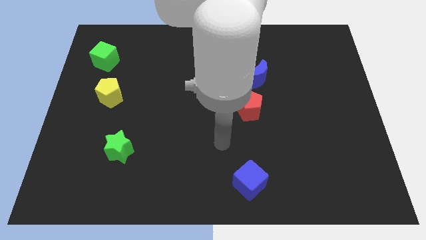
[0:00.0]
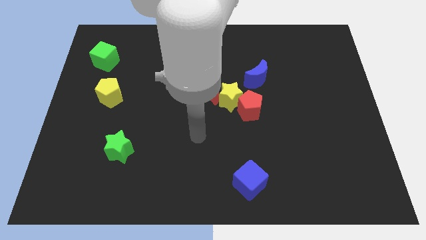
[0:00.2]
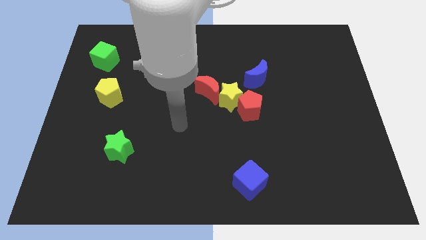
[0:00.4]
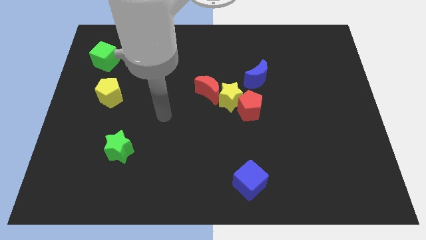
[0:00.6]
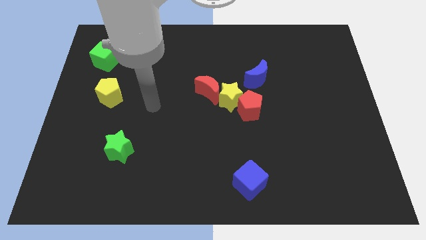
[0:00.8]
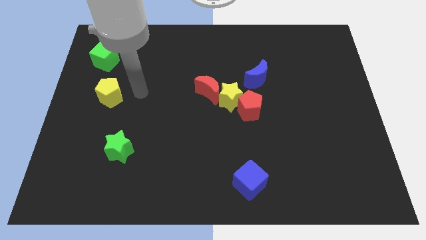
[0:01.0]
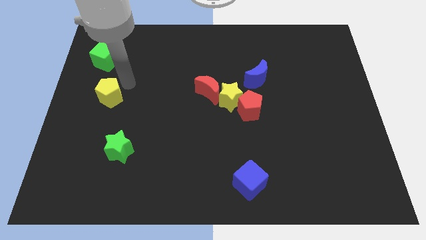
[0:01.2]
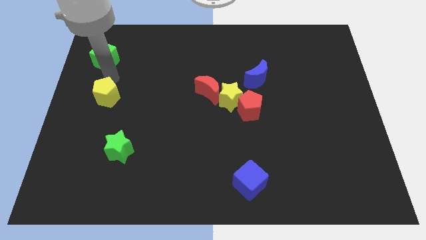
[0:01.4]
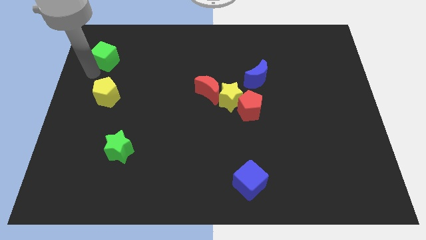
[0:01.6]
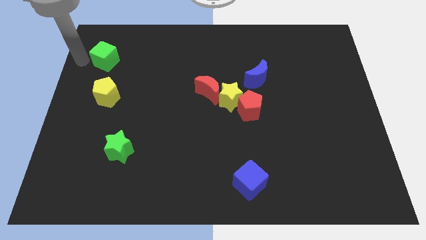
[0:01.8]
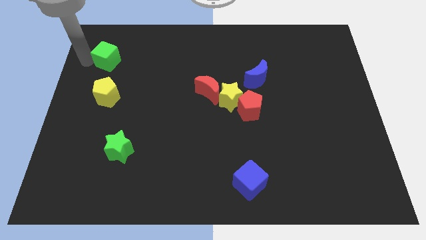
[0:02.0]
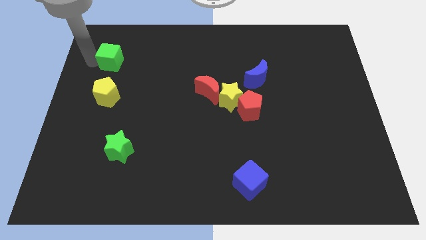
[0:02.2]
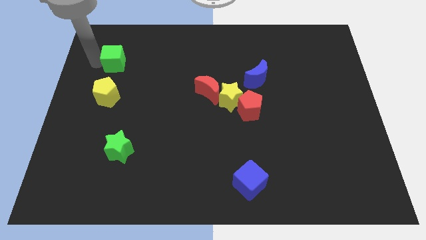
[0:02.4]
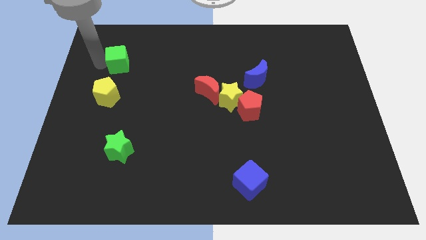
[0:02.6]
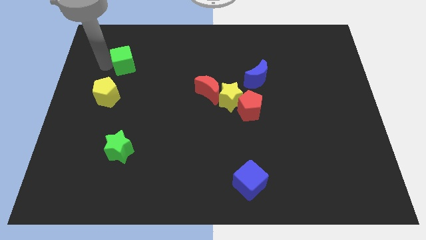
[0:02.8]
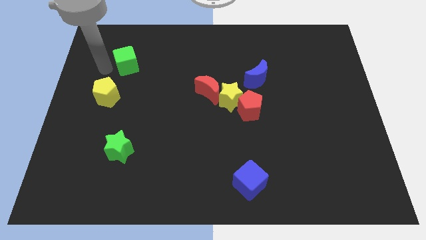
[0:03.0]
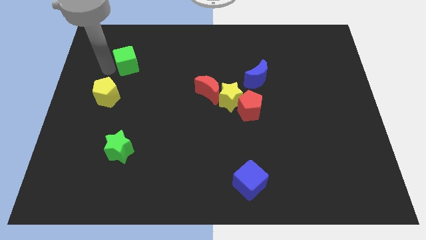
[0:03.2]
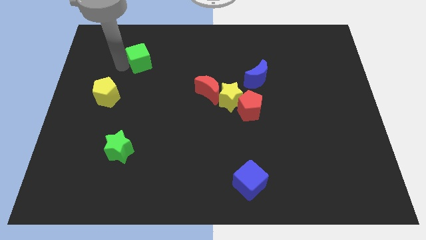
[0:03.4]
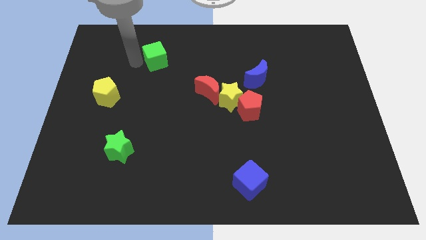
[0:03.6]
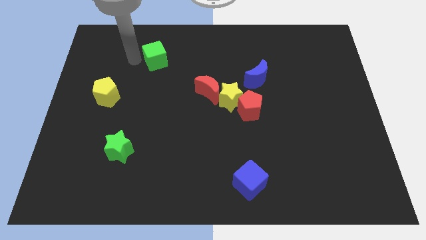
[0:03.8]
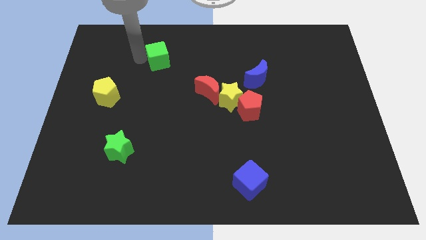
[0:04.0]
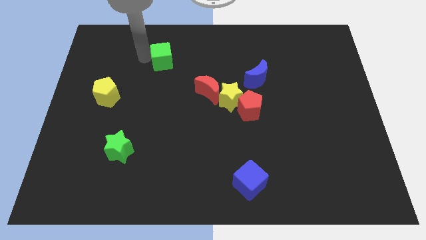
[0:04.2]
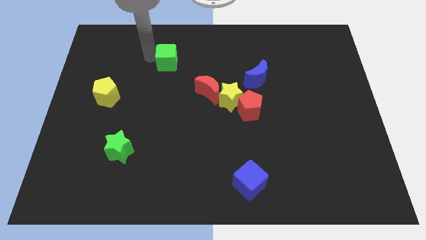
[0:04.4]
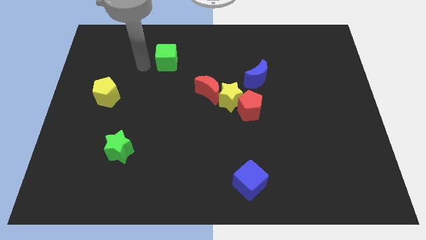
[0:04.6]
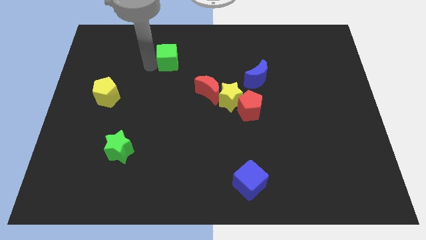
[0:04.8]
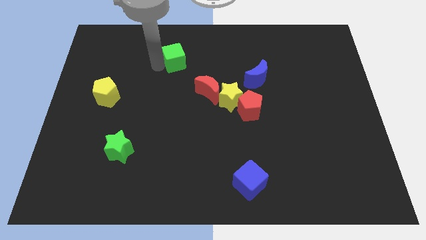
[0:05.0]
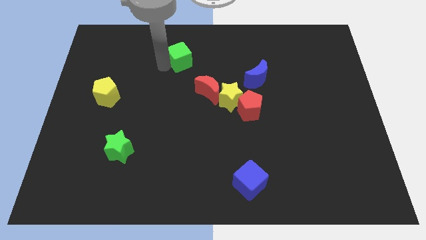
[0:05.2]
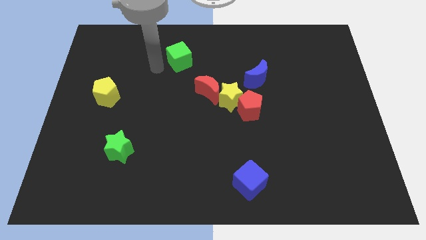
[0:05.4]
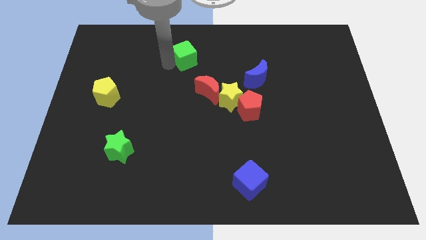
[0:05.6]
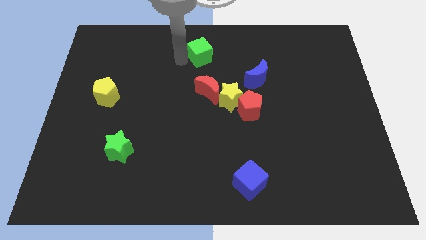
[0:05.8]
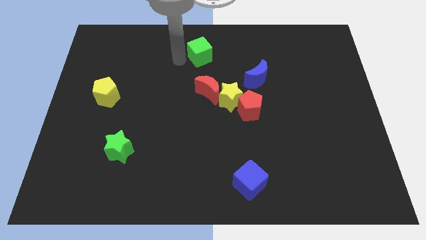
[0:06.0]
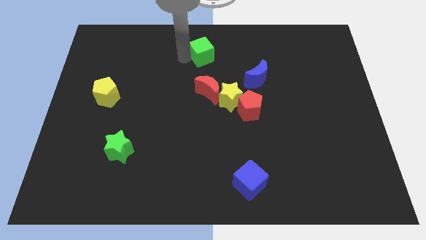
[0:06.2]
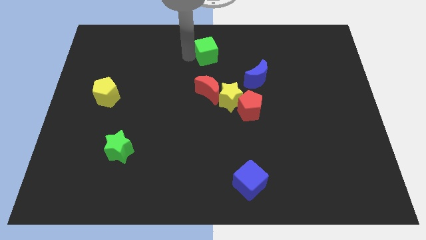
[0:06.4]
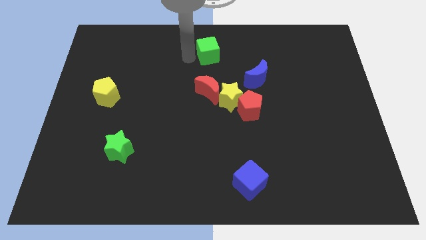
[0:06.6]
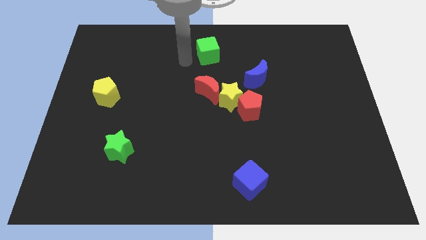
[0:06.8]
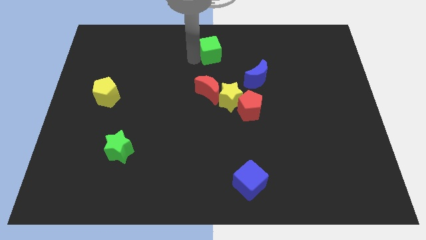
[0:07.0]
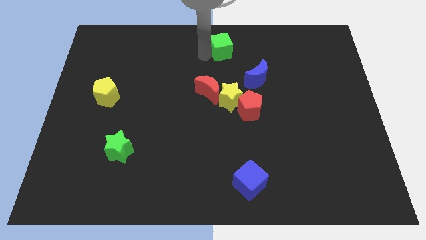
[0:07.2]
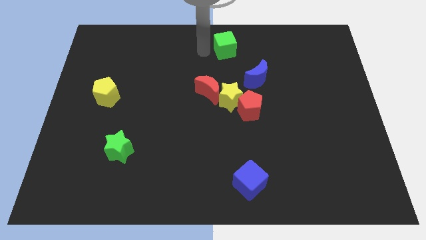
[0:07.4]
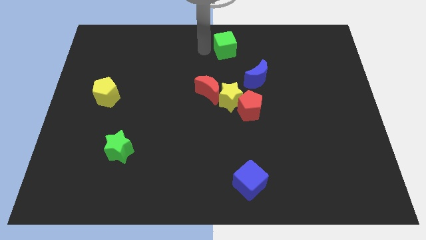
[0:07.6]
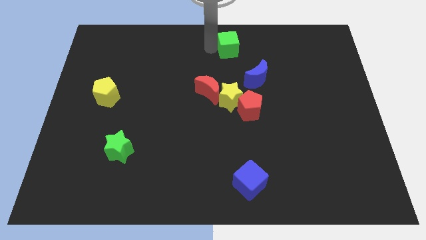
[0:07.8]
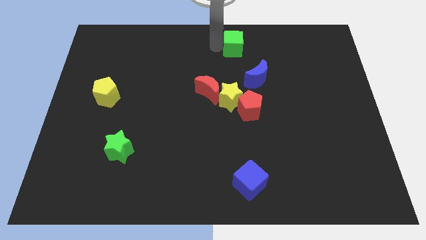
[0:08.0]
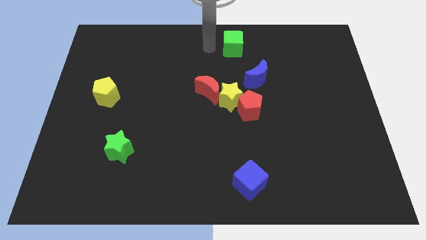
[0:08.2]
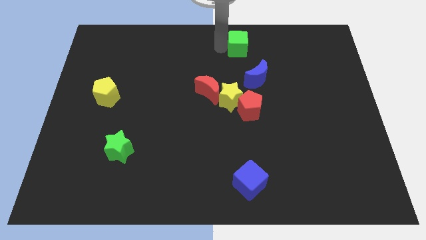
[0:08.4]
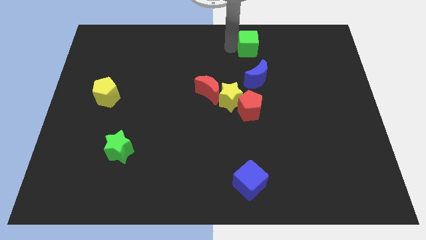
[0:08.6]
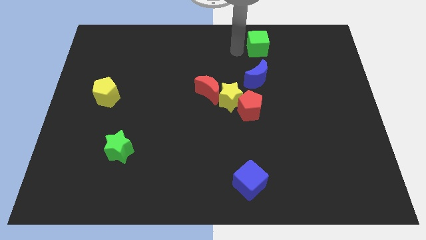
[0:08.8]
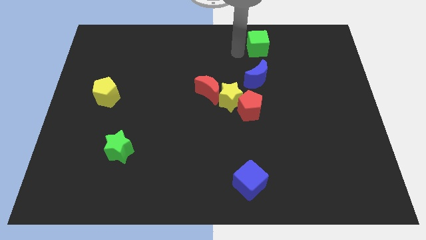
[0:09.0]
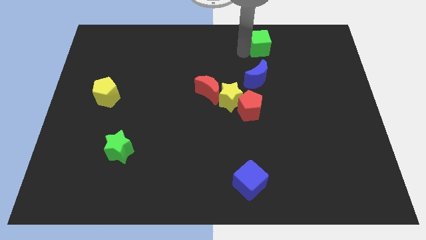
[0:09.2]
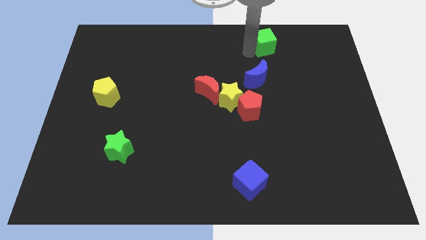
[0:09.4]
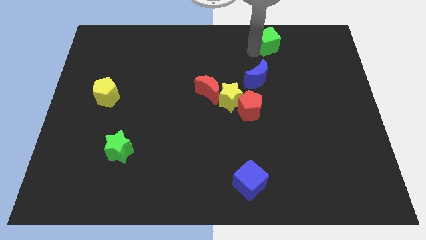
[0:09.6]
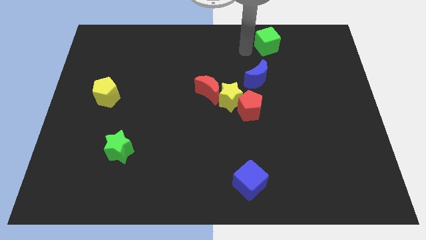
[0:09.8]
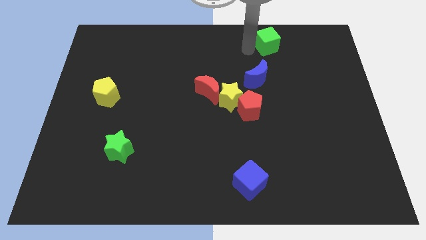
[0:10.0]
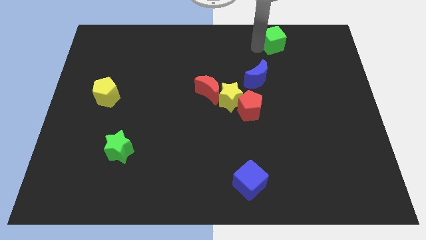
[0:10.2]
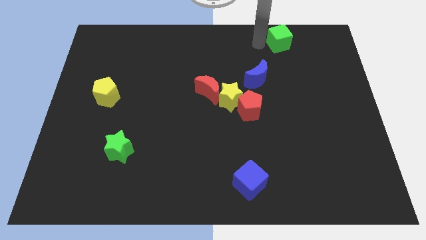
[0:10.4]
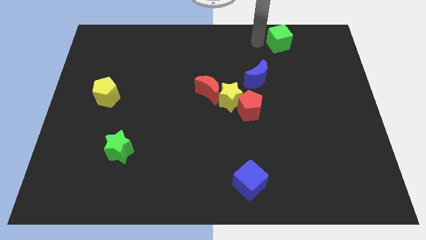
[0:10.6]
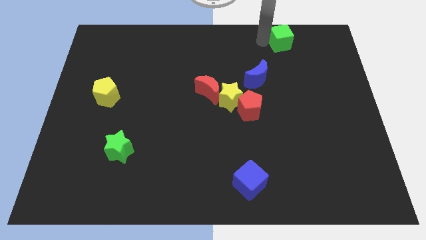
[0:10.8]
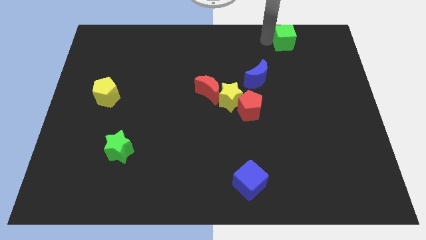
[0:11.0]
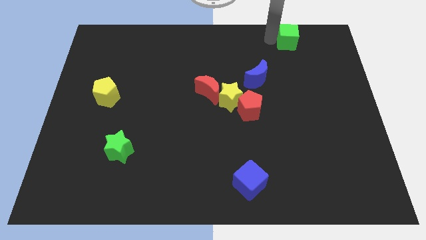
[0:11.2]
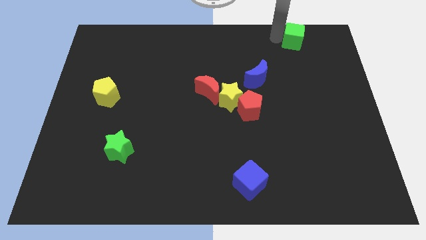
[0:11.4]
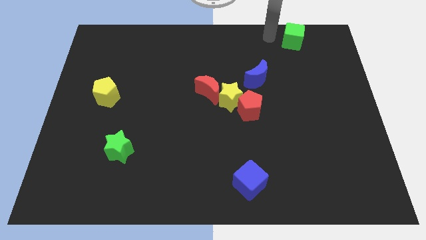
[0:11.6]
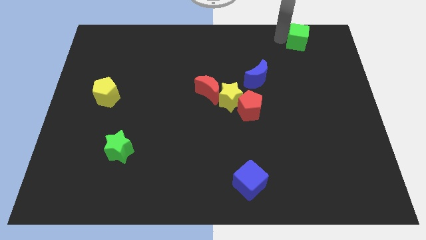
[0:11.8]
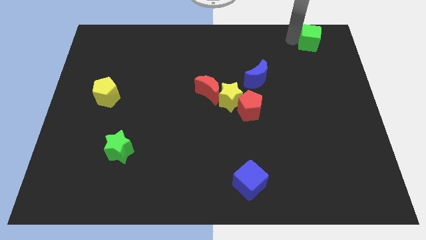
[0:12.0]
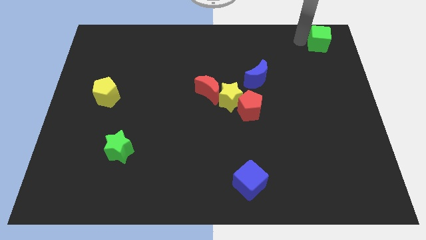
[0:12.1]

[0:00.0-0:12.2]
slide the green cube to the top right corner

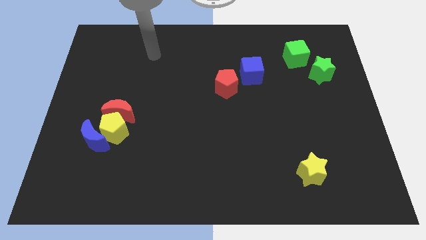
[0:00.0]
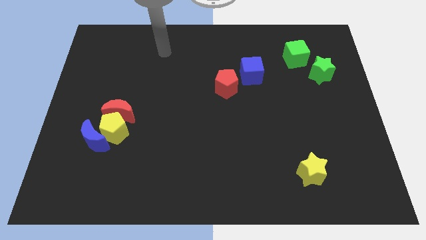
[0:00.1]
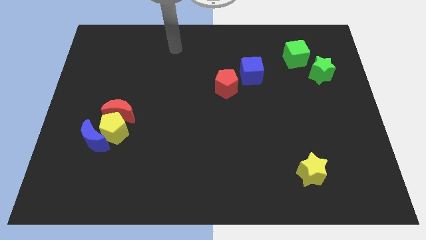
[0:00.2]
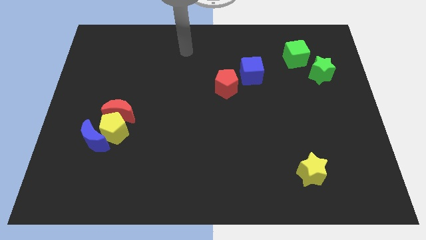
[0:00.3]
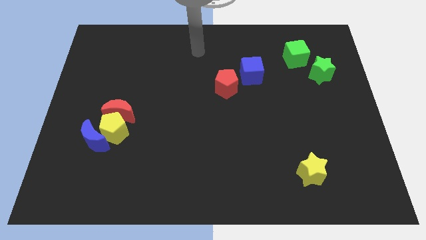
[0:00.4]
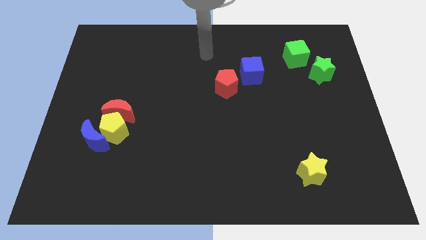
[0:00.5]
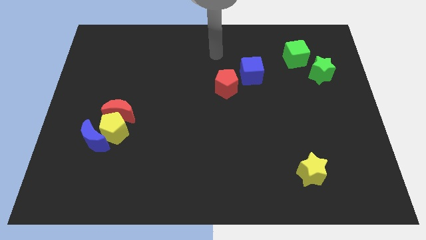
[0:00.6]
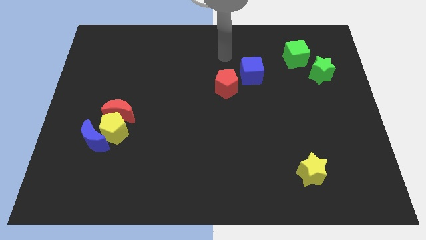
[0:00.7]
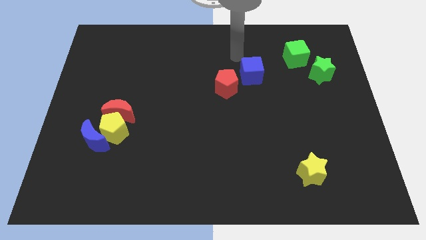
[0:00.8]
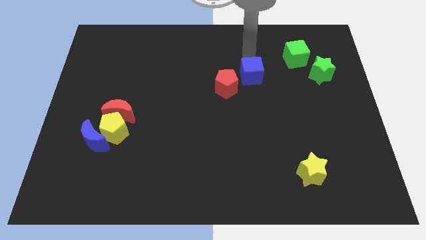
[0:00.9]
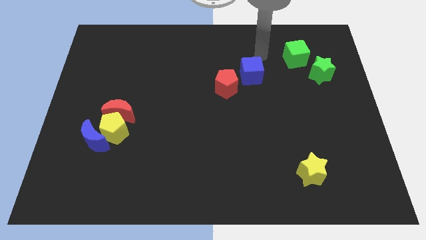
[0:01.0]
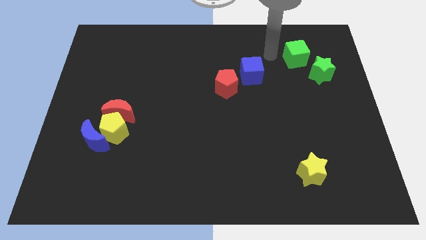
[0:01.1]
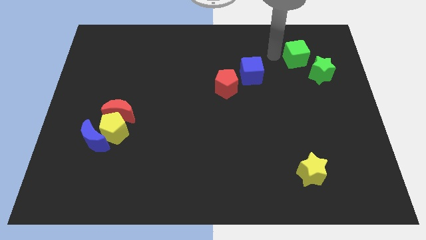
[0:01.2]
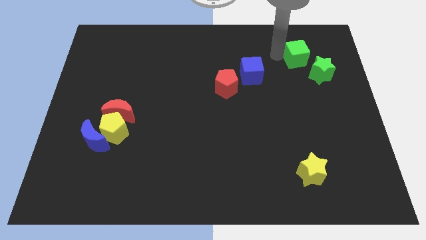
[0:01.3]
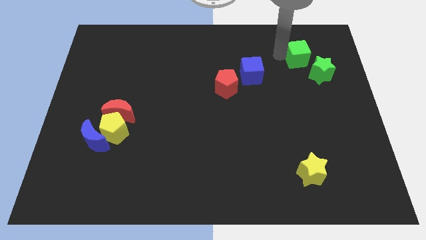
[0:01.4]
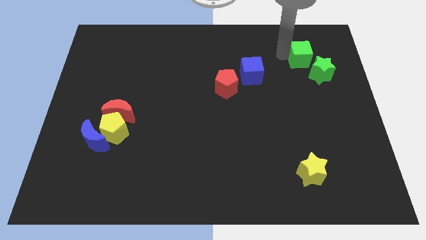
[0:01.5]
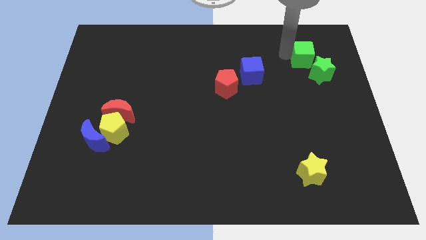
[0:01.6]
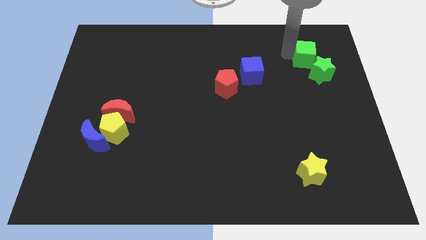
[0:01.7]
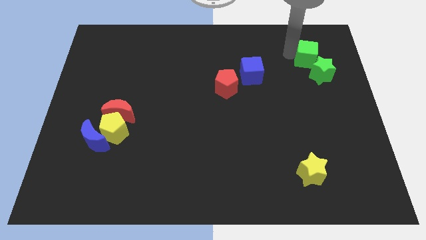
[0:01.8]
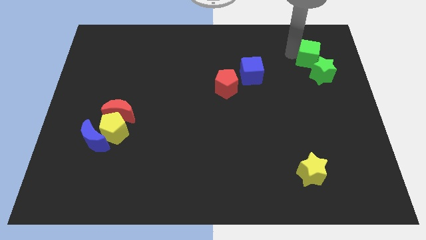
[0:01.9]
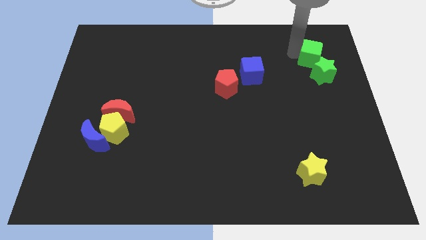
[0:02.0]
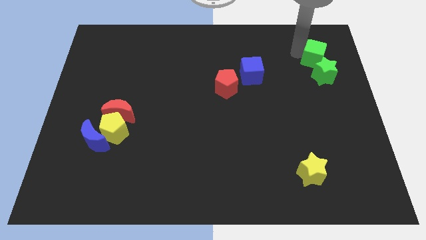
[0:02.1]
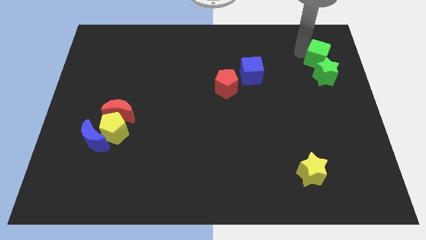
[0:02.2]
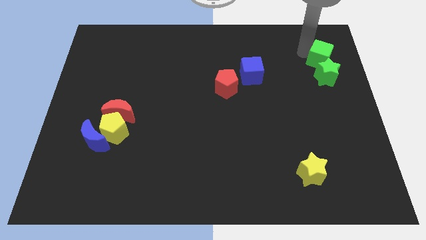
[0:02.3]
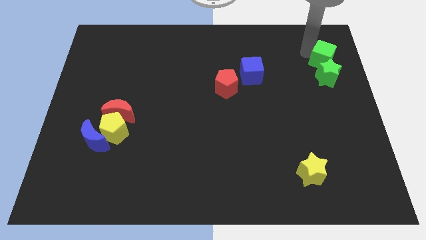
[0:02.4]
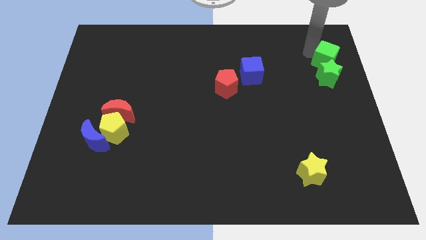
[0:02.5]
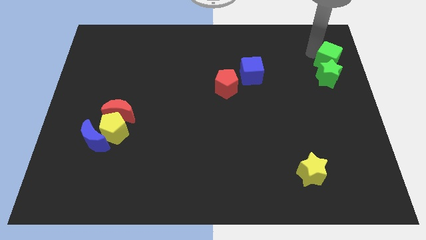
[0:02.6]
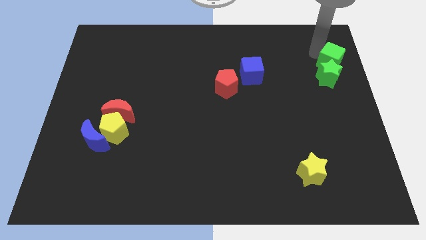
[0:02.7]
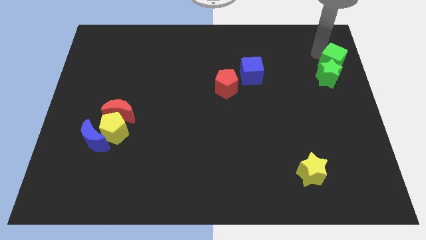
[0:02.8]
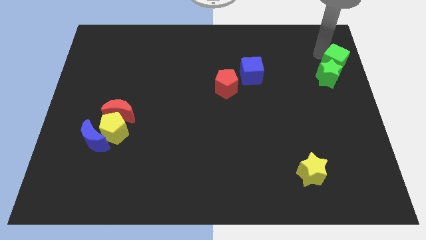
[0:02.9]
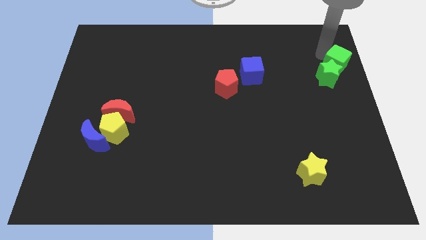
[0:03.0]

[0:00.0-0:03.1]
push the green cube to the center right
